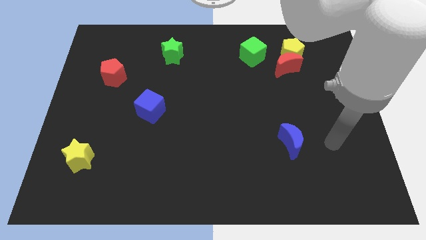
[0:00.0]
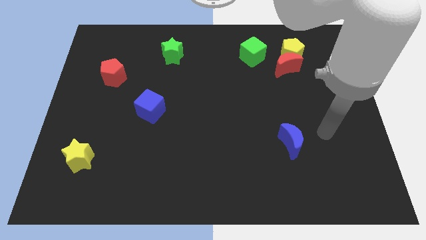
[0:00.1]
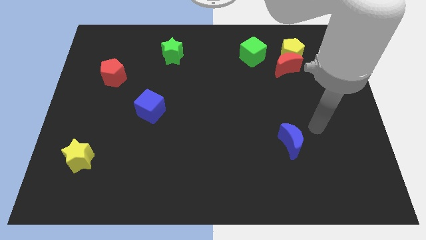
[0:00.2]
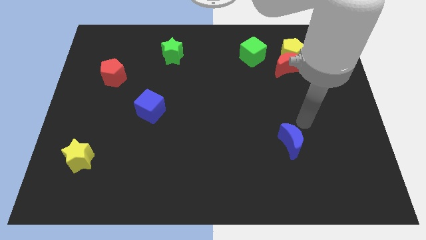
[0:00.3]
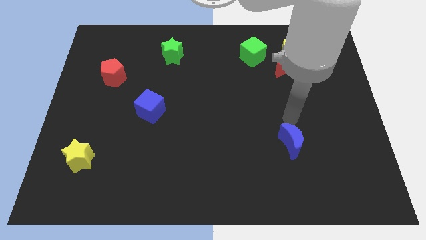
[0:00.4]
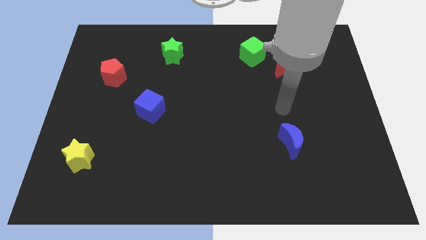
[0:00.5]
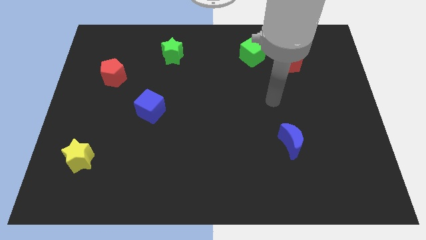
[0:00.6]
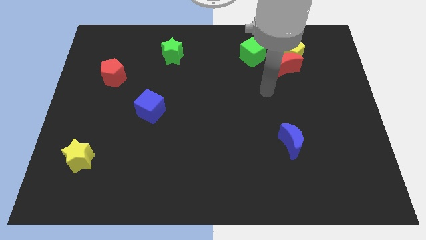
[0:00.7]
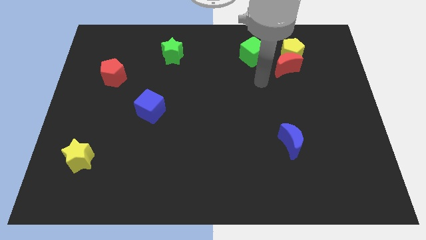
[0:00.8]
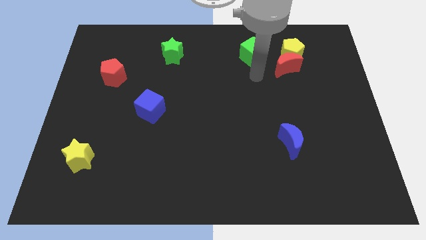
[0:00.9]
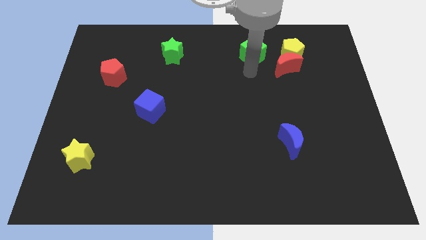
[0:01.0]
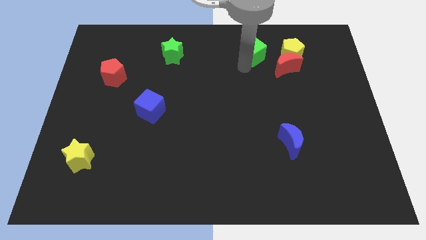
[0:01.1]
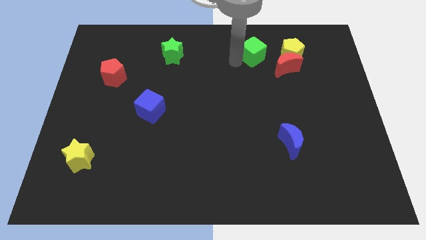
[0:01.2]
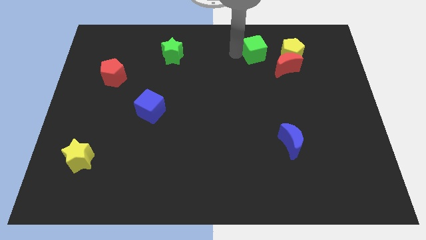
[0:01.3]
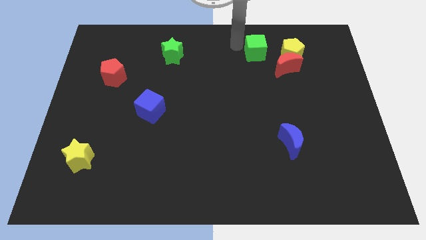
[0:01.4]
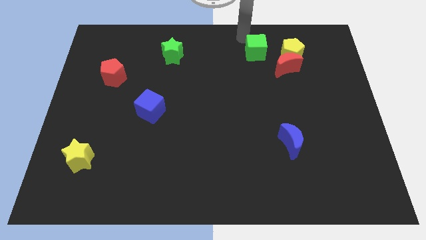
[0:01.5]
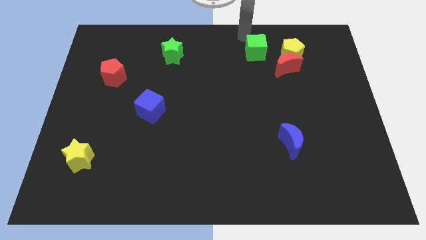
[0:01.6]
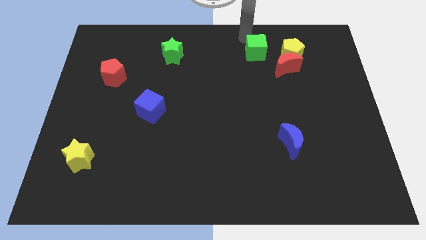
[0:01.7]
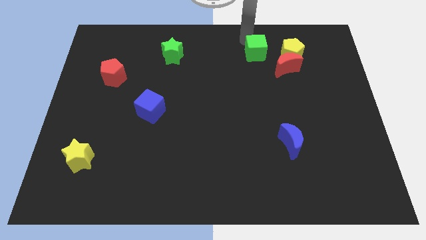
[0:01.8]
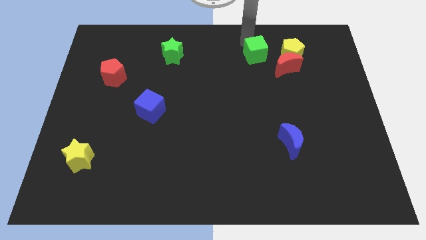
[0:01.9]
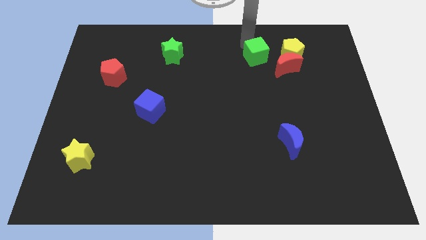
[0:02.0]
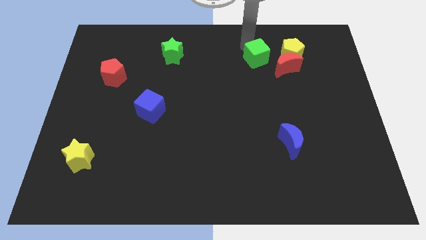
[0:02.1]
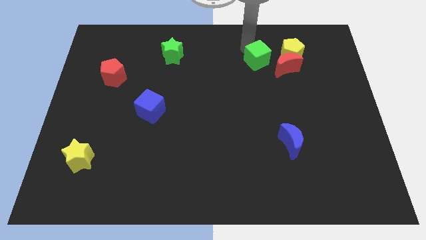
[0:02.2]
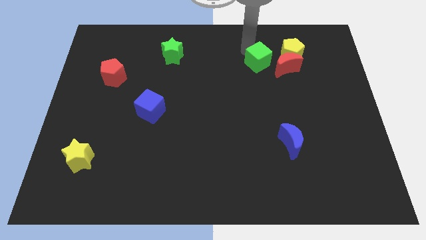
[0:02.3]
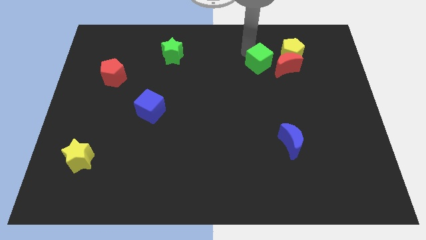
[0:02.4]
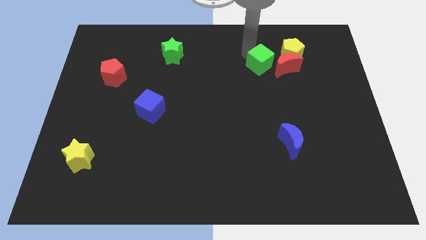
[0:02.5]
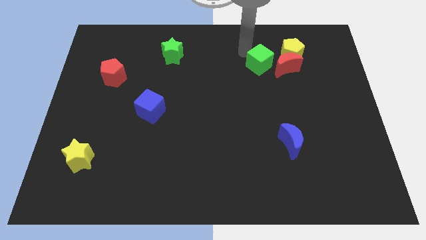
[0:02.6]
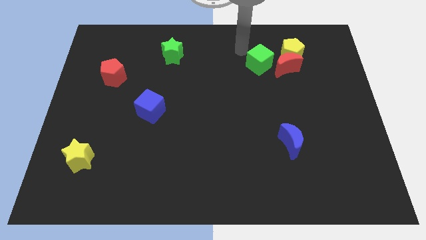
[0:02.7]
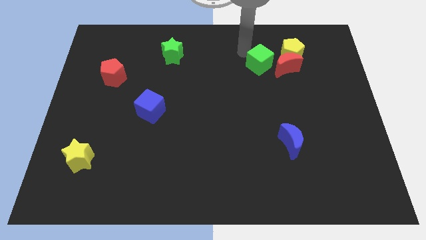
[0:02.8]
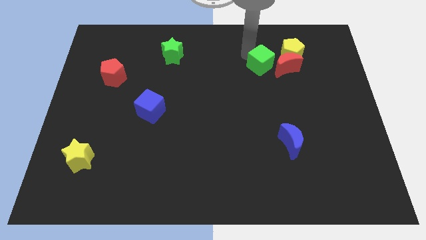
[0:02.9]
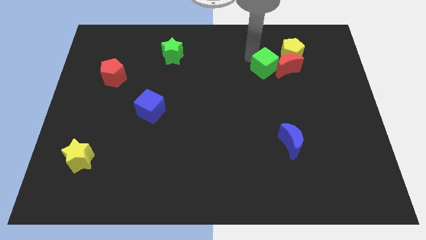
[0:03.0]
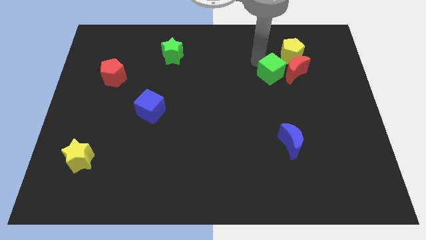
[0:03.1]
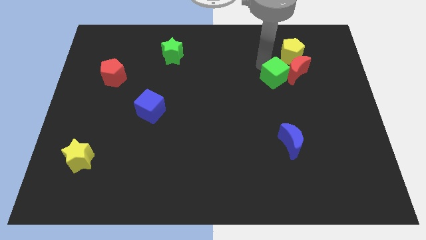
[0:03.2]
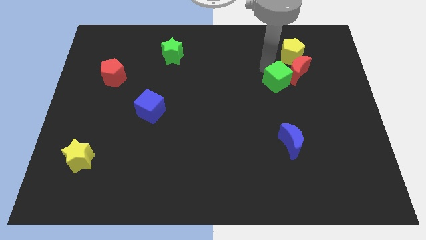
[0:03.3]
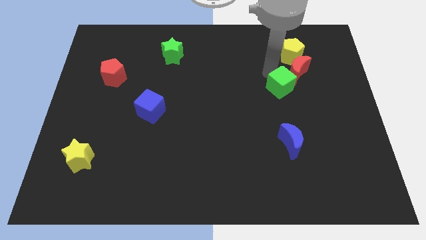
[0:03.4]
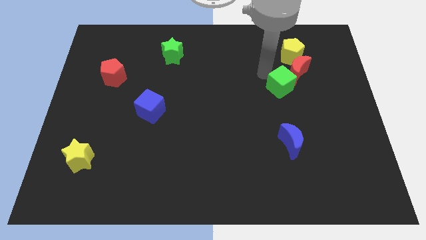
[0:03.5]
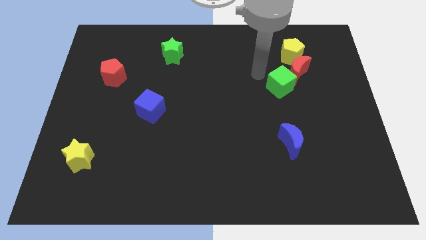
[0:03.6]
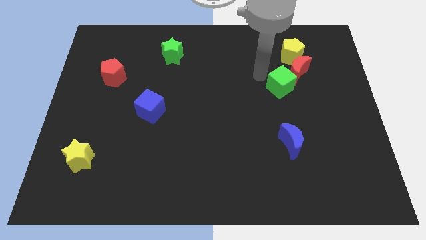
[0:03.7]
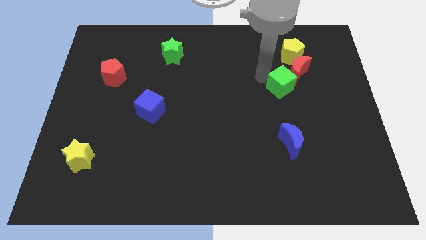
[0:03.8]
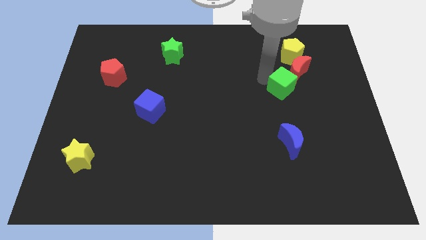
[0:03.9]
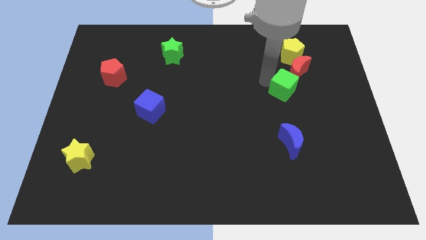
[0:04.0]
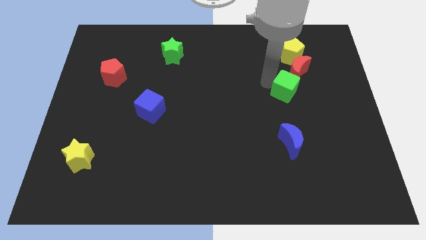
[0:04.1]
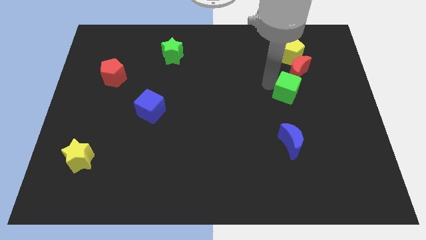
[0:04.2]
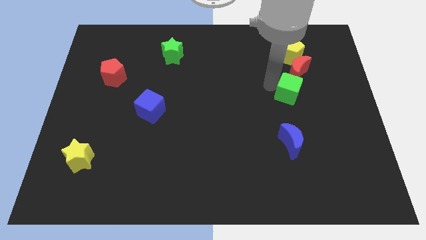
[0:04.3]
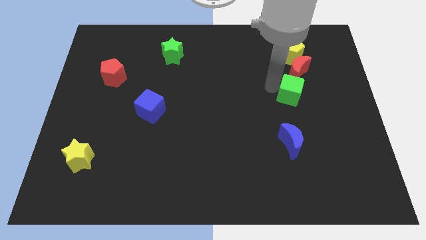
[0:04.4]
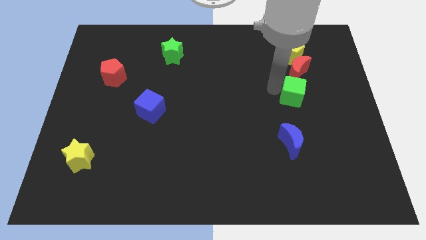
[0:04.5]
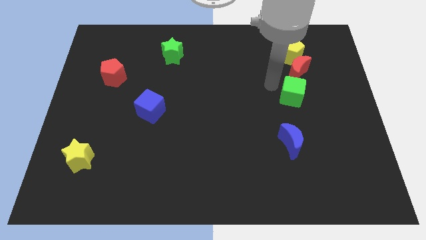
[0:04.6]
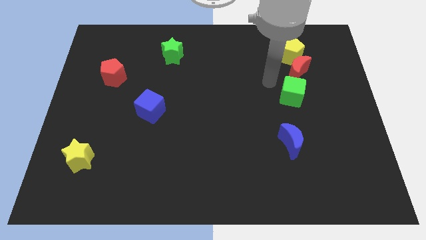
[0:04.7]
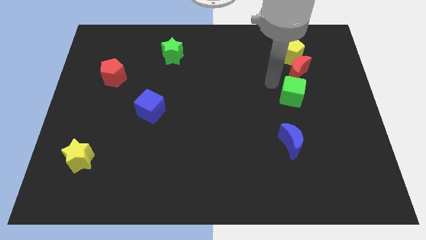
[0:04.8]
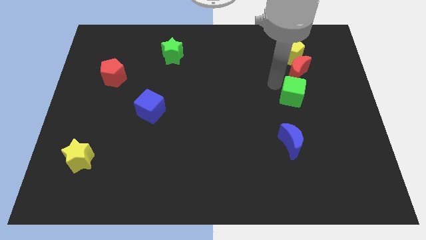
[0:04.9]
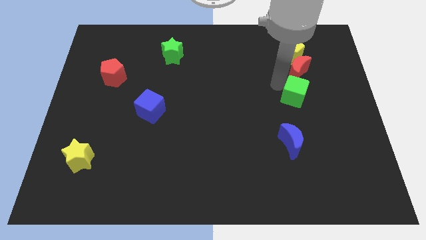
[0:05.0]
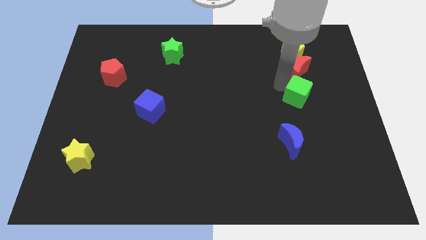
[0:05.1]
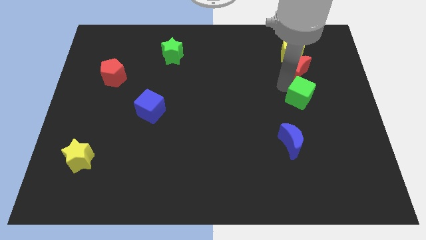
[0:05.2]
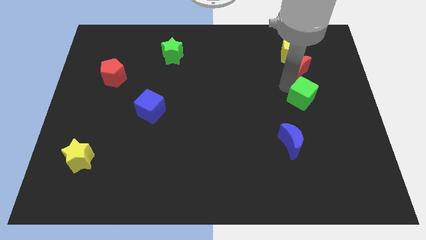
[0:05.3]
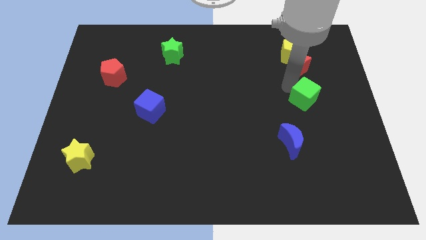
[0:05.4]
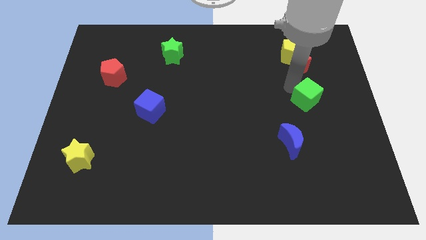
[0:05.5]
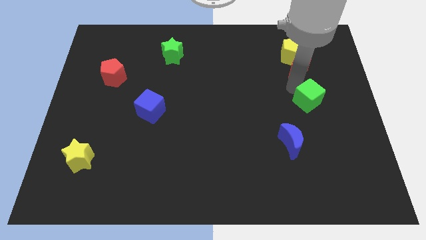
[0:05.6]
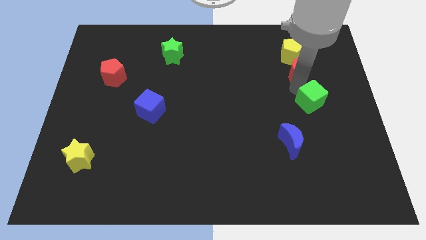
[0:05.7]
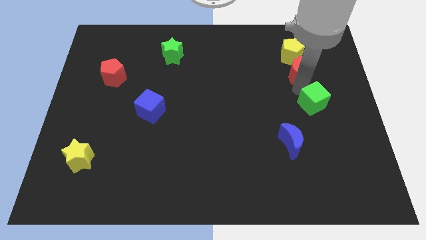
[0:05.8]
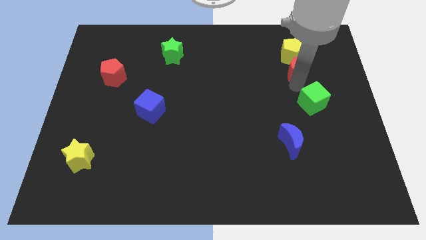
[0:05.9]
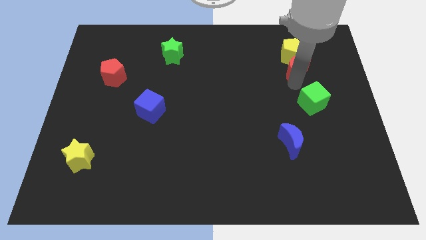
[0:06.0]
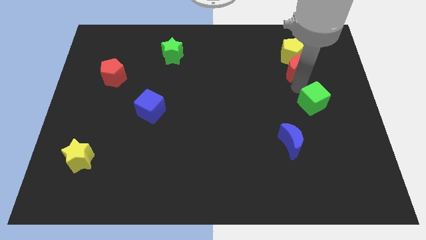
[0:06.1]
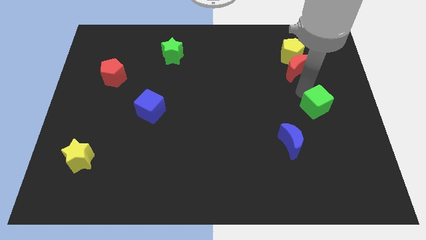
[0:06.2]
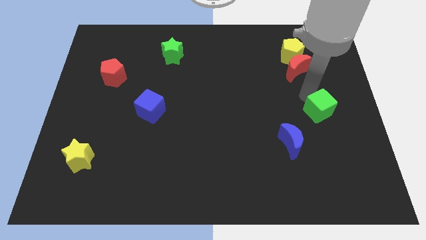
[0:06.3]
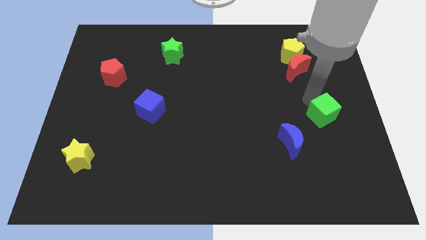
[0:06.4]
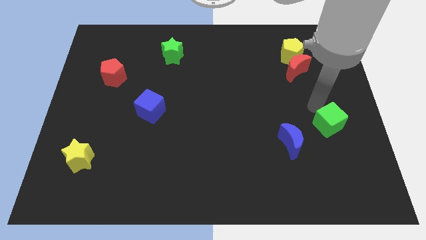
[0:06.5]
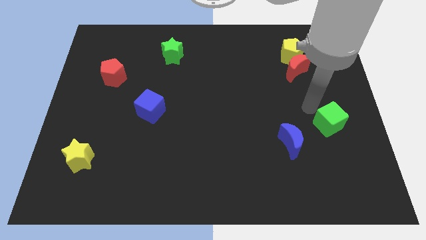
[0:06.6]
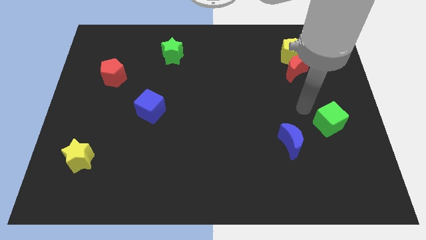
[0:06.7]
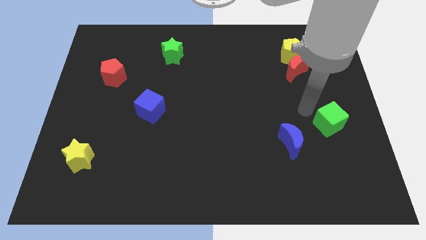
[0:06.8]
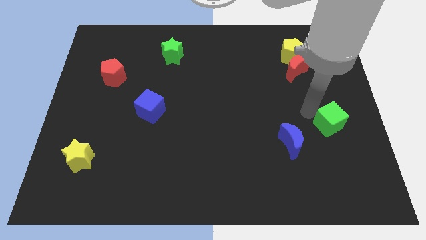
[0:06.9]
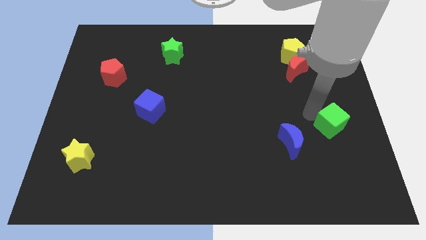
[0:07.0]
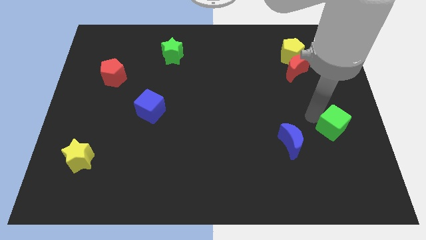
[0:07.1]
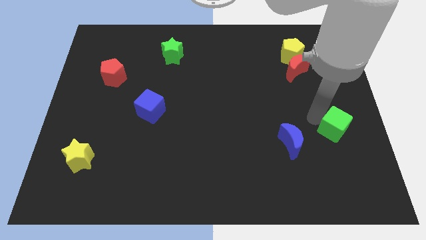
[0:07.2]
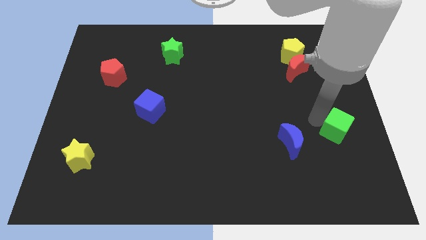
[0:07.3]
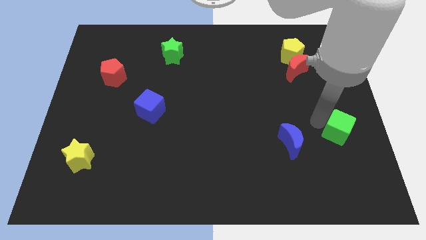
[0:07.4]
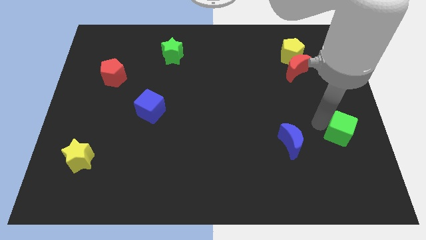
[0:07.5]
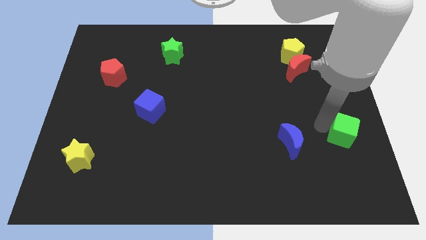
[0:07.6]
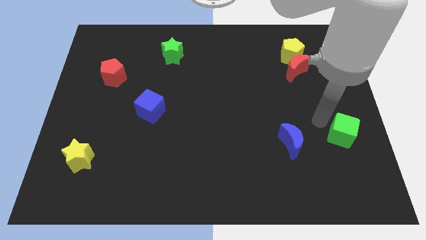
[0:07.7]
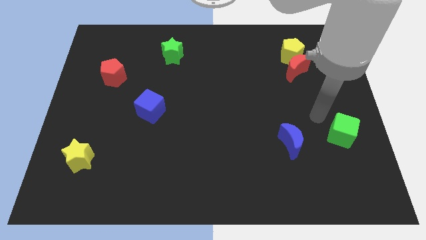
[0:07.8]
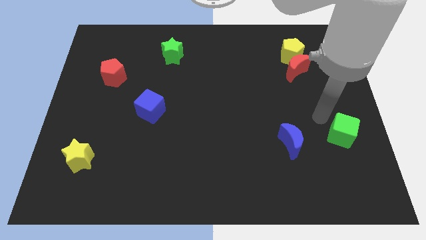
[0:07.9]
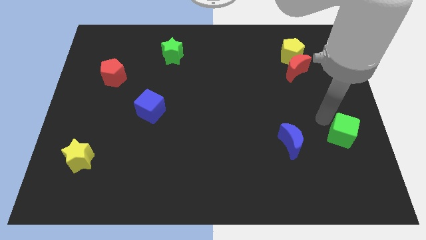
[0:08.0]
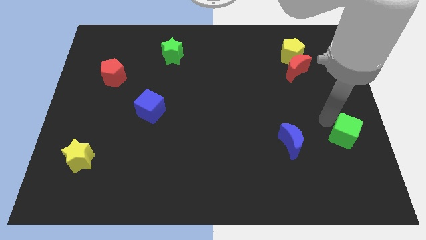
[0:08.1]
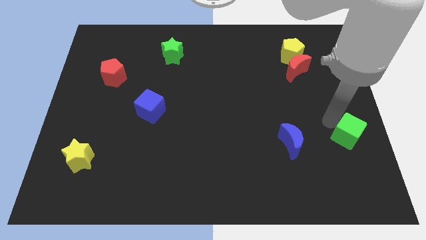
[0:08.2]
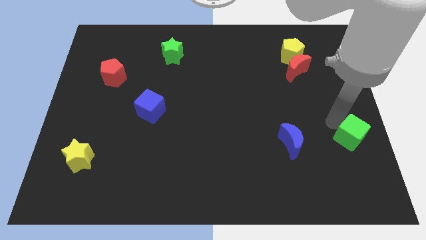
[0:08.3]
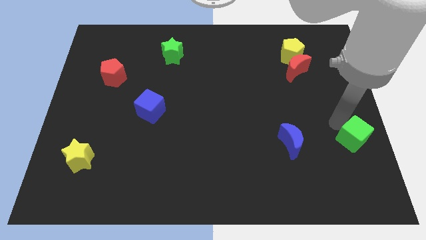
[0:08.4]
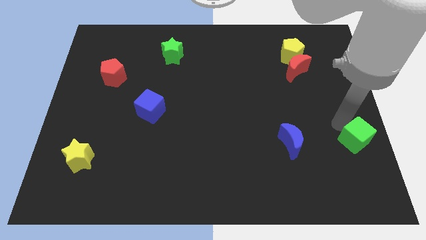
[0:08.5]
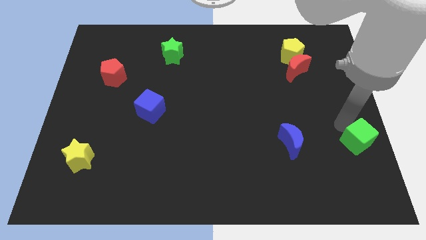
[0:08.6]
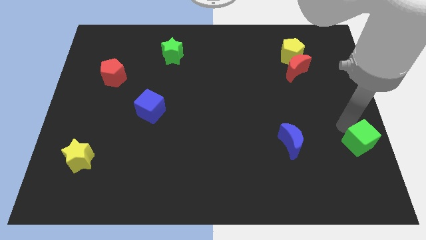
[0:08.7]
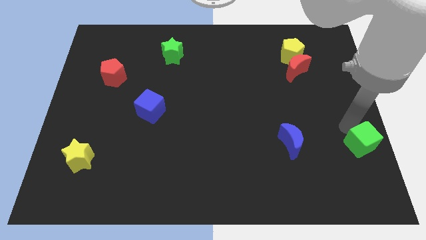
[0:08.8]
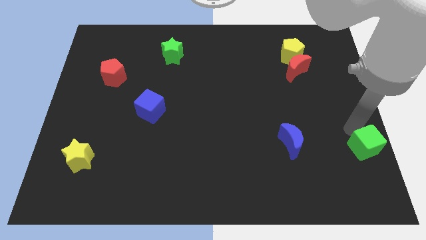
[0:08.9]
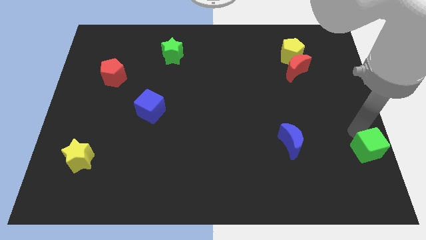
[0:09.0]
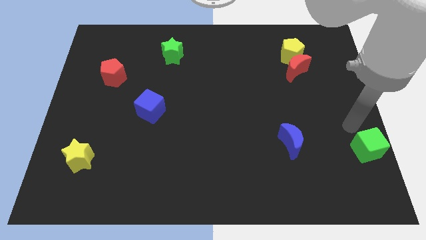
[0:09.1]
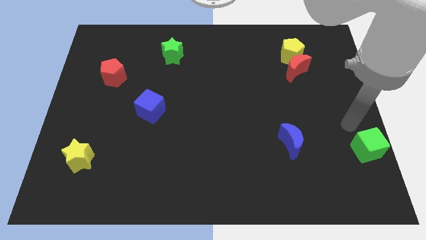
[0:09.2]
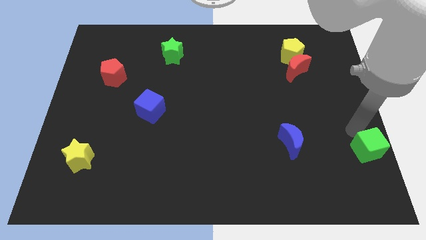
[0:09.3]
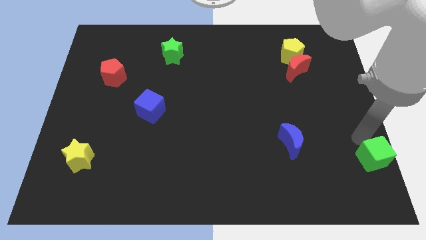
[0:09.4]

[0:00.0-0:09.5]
move the green cube to the lower right corner
